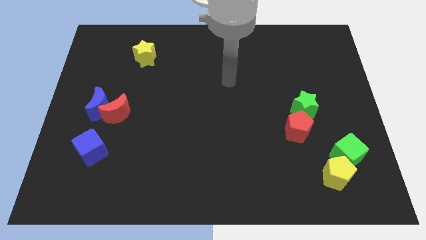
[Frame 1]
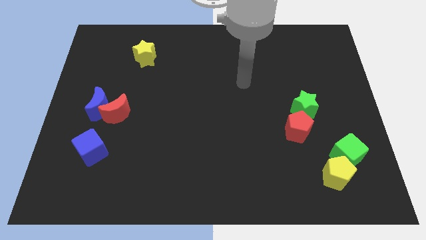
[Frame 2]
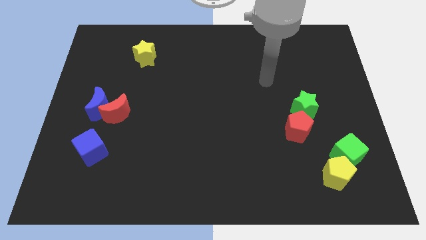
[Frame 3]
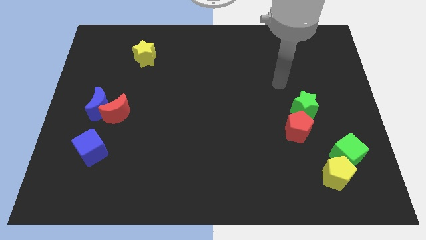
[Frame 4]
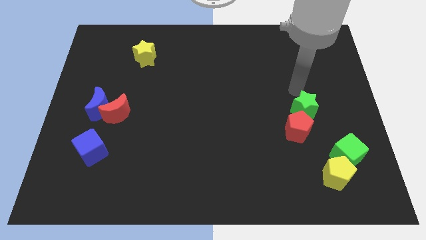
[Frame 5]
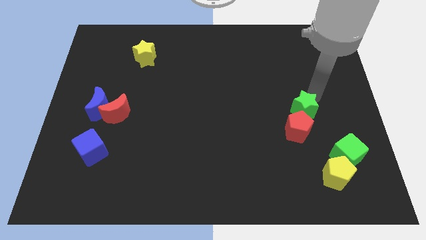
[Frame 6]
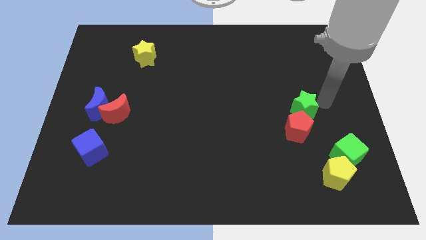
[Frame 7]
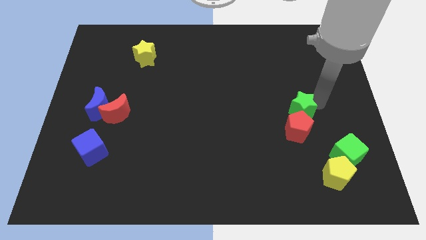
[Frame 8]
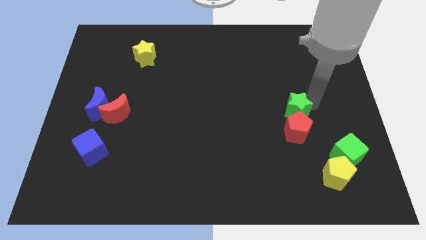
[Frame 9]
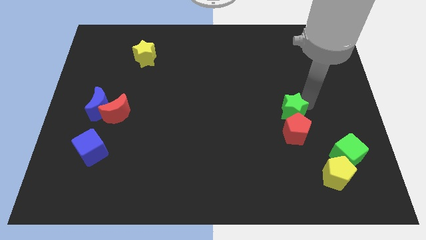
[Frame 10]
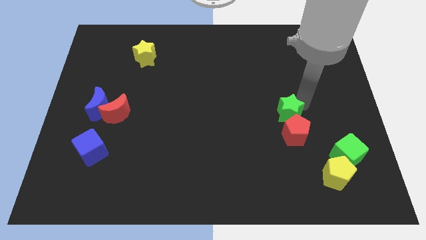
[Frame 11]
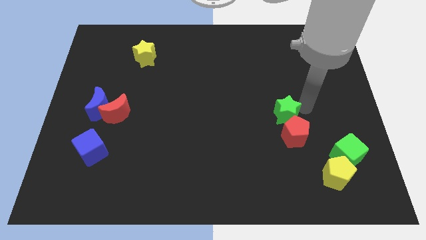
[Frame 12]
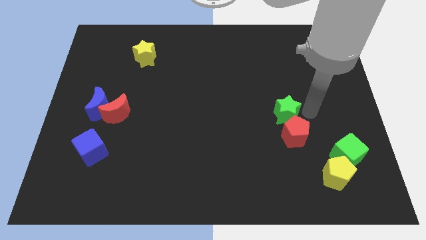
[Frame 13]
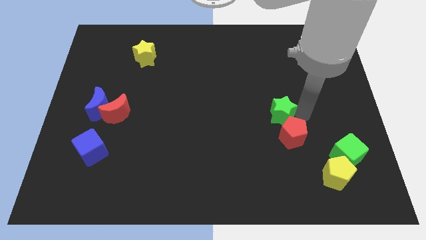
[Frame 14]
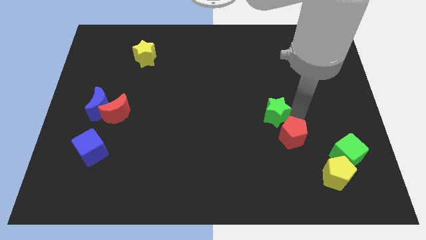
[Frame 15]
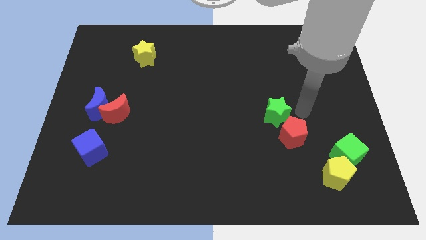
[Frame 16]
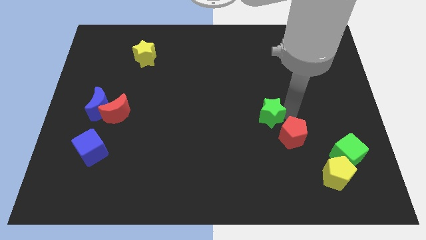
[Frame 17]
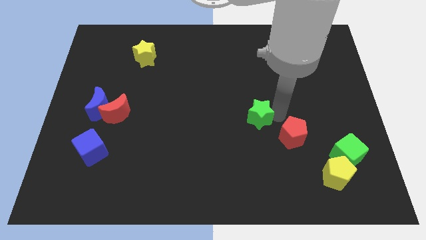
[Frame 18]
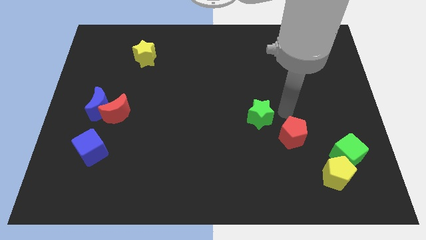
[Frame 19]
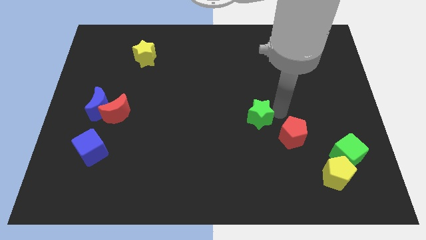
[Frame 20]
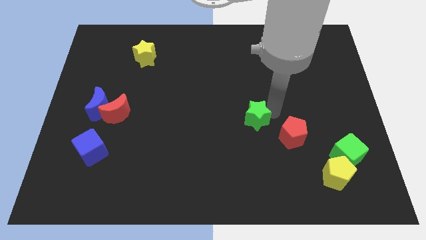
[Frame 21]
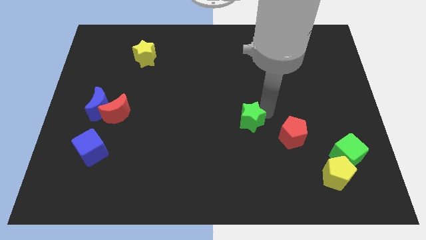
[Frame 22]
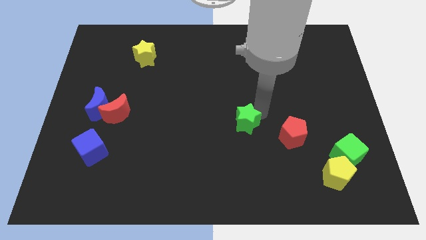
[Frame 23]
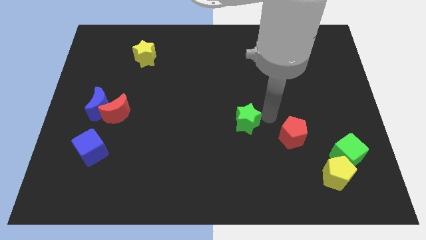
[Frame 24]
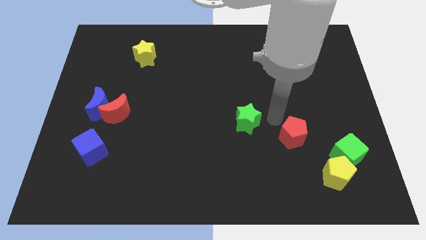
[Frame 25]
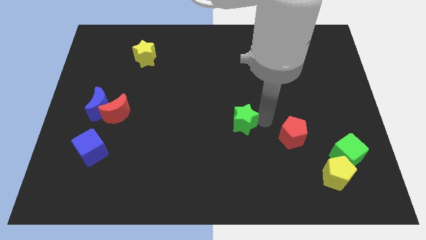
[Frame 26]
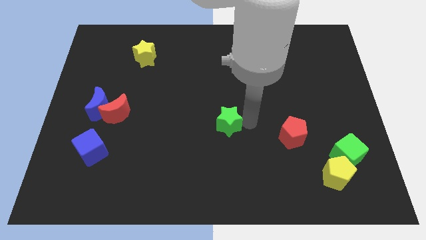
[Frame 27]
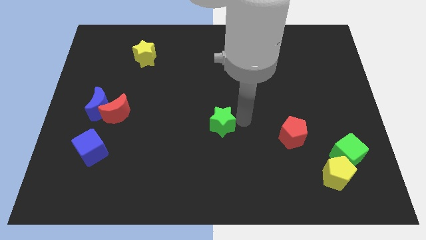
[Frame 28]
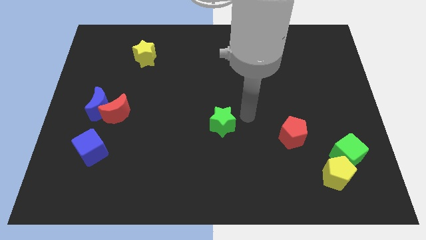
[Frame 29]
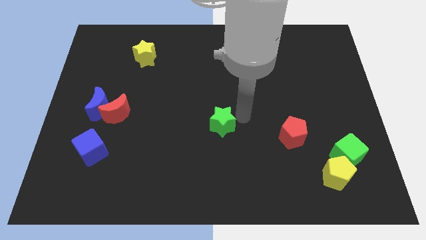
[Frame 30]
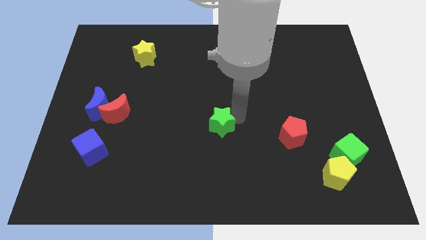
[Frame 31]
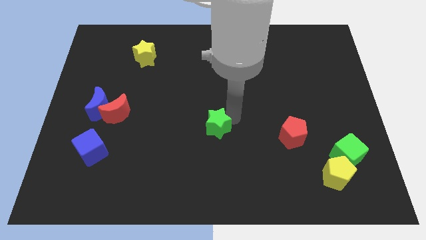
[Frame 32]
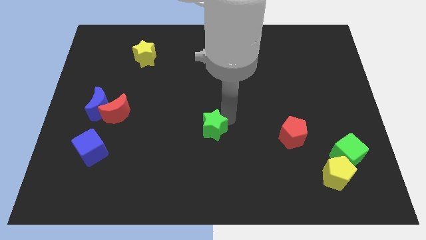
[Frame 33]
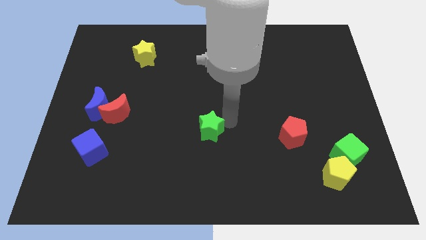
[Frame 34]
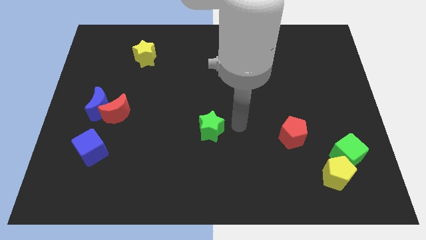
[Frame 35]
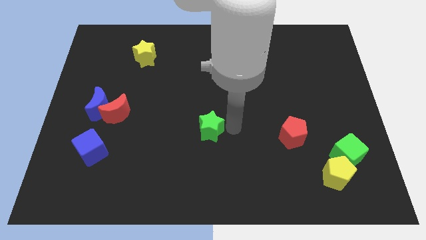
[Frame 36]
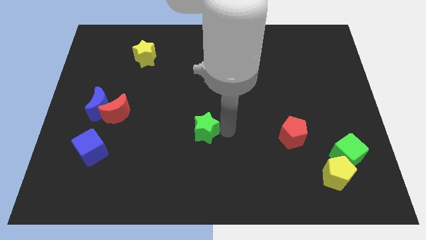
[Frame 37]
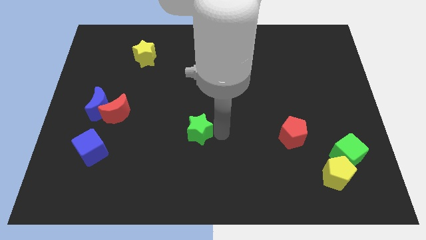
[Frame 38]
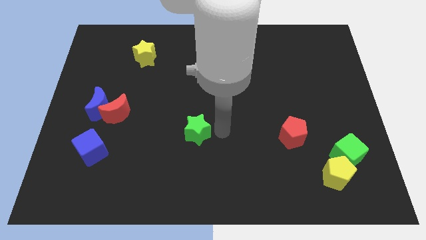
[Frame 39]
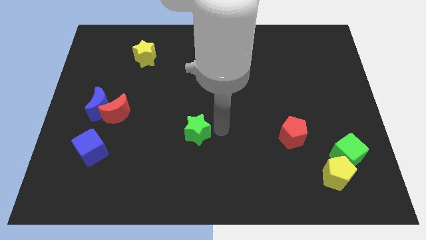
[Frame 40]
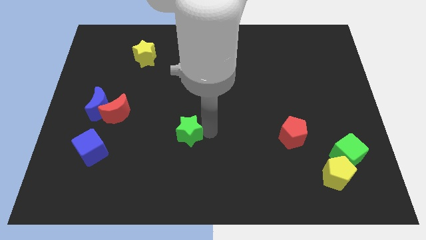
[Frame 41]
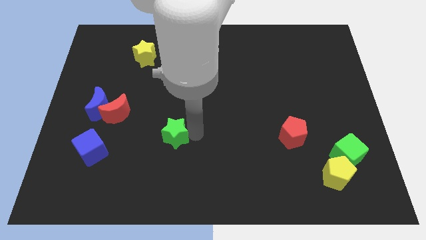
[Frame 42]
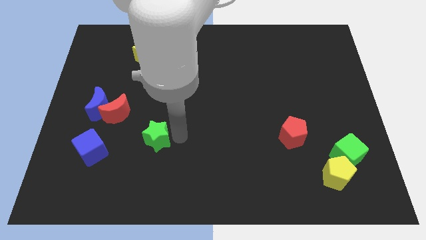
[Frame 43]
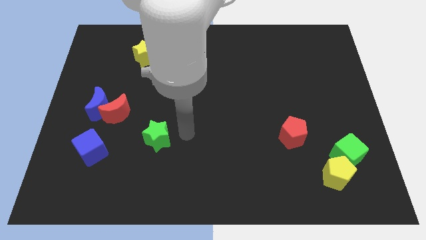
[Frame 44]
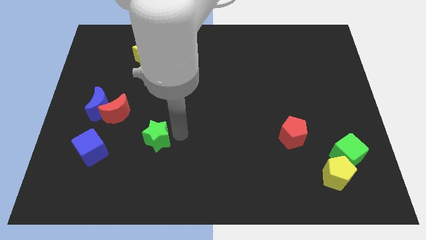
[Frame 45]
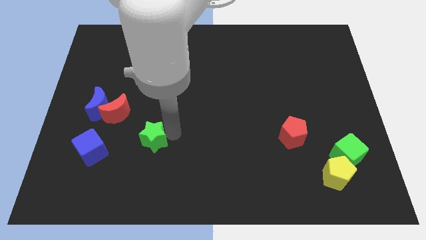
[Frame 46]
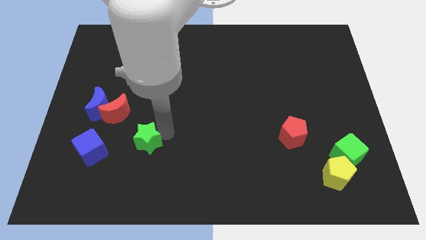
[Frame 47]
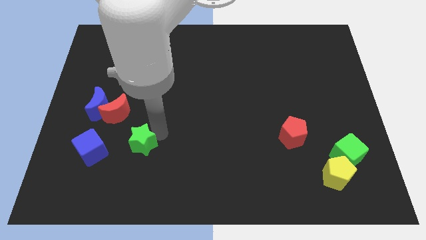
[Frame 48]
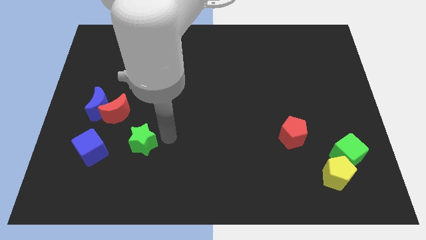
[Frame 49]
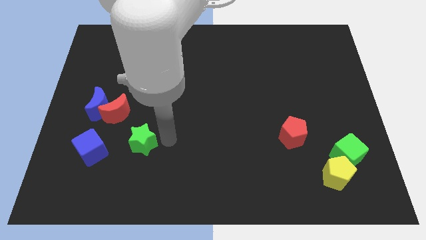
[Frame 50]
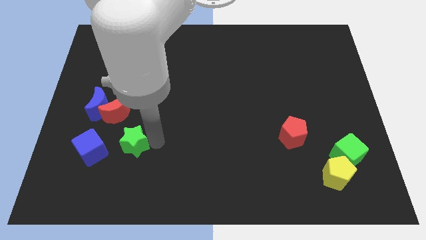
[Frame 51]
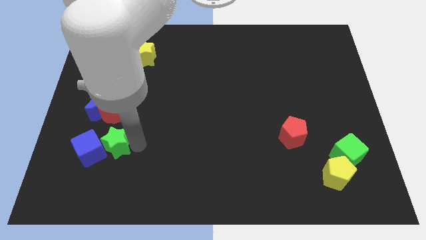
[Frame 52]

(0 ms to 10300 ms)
move the green star to the blue cube

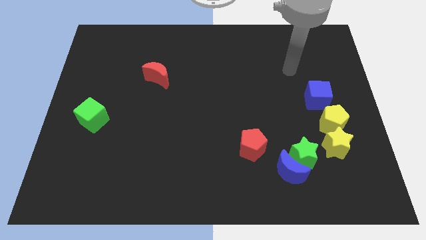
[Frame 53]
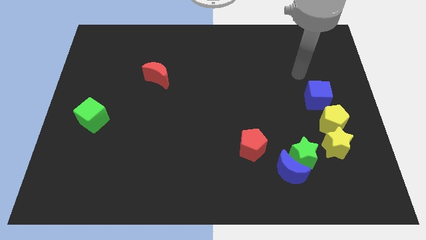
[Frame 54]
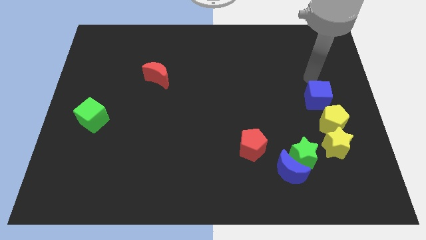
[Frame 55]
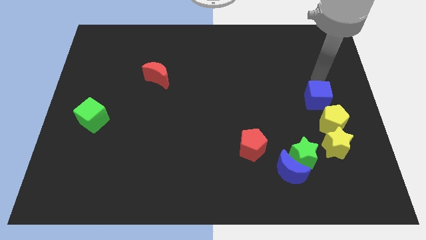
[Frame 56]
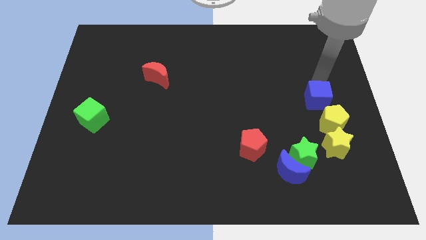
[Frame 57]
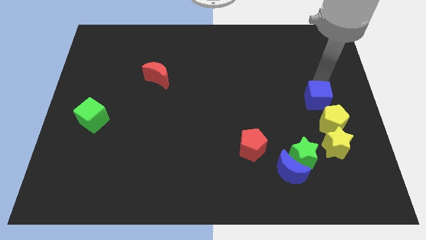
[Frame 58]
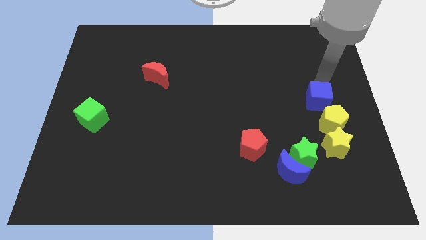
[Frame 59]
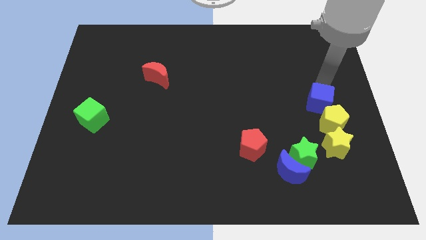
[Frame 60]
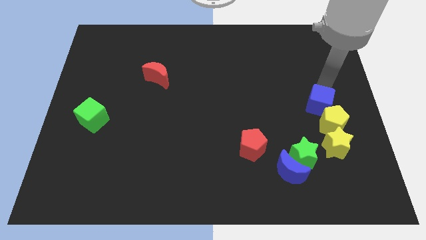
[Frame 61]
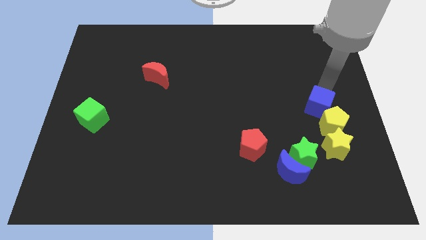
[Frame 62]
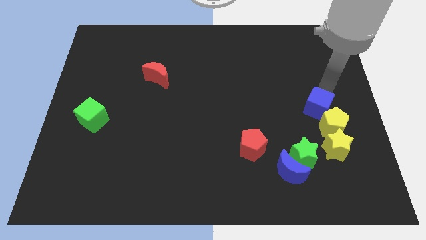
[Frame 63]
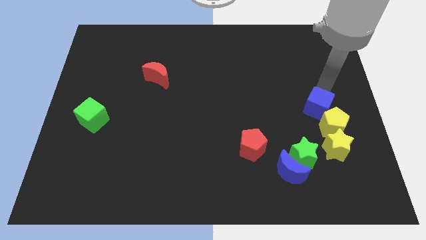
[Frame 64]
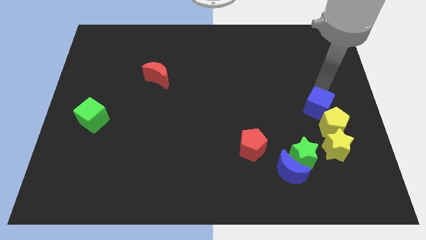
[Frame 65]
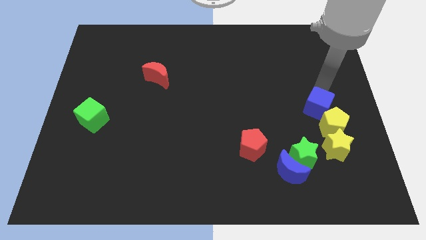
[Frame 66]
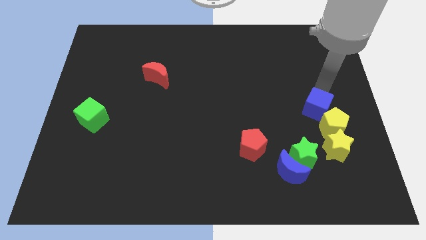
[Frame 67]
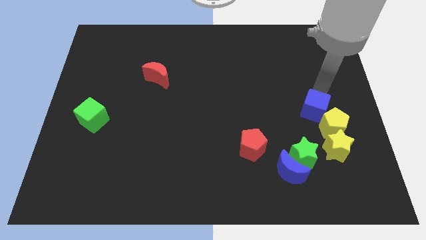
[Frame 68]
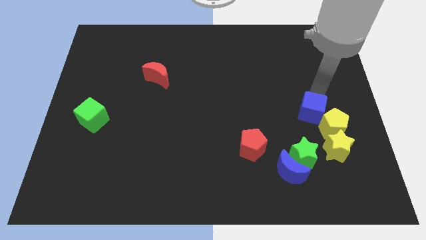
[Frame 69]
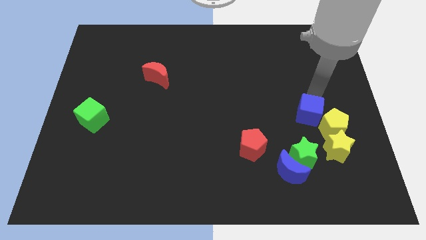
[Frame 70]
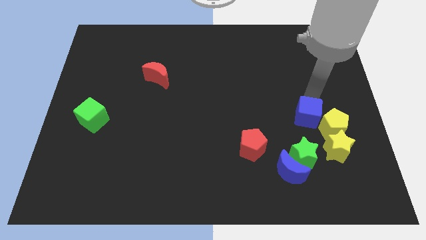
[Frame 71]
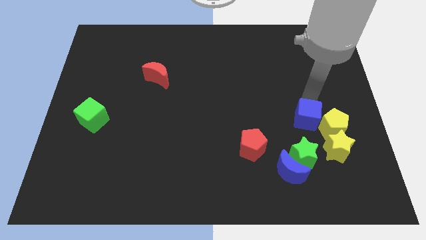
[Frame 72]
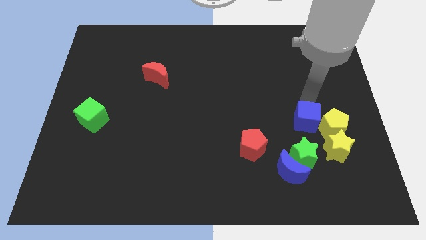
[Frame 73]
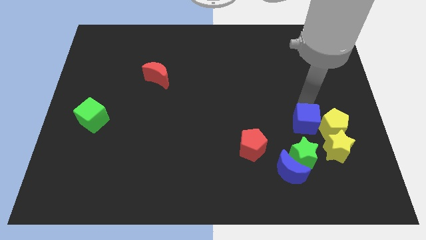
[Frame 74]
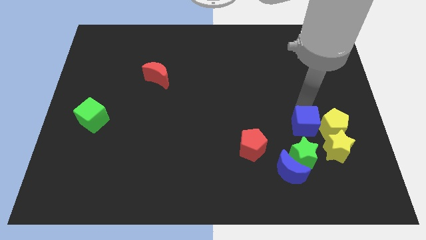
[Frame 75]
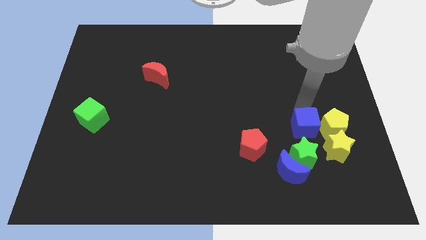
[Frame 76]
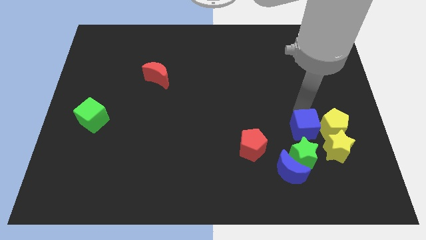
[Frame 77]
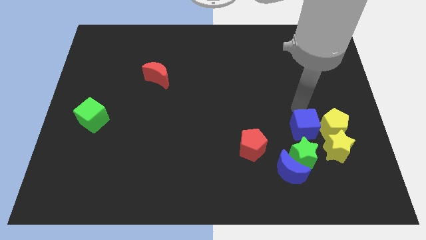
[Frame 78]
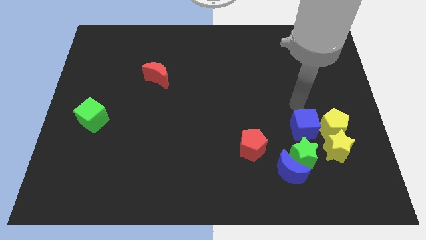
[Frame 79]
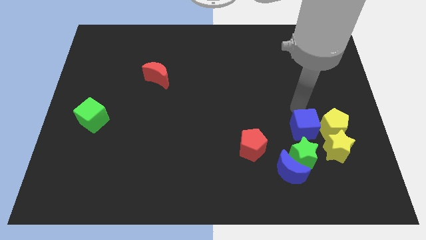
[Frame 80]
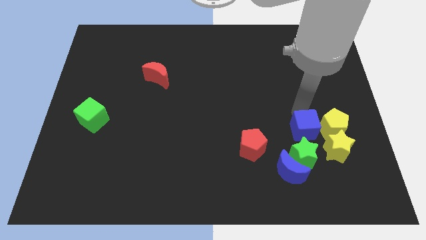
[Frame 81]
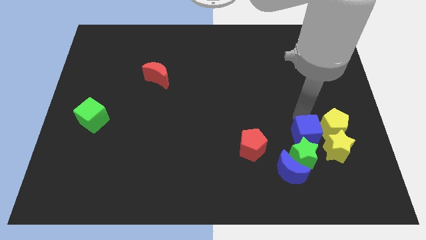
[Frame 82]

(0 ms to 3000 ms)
push the blue cube close to the green star
